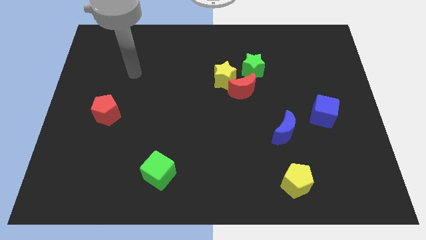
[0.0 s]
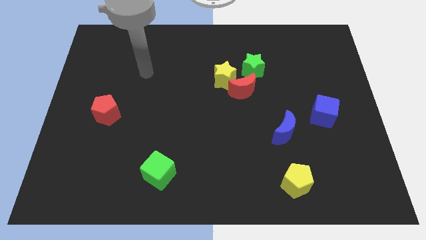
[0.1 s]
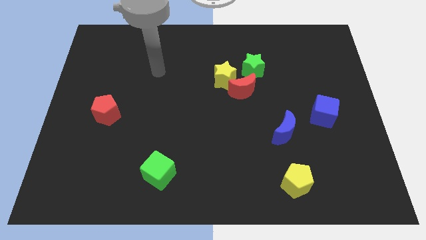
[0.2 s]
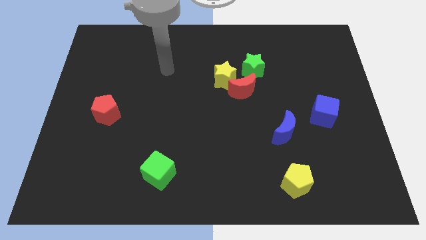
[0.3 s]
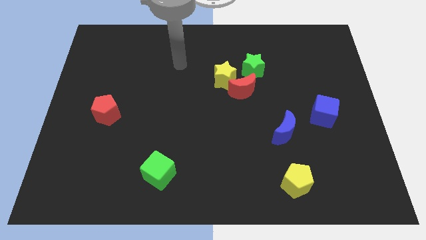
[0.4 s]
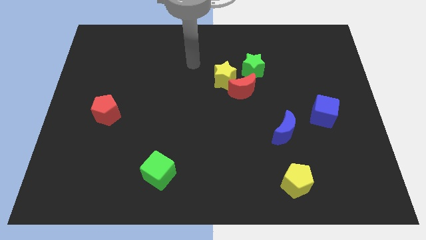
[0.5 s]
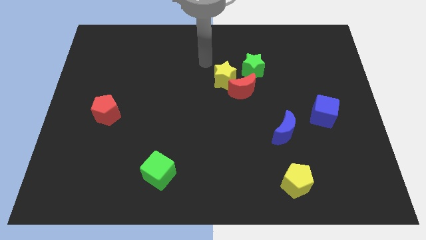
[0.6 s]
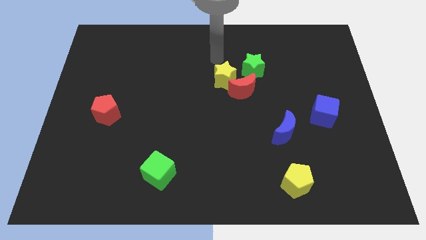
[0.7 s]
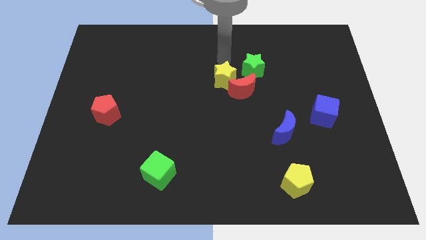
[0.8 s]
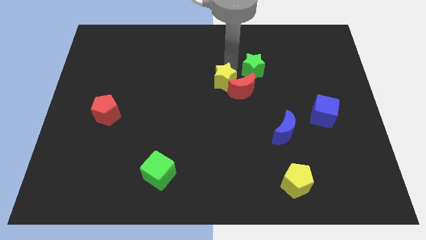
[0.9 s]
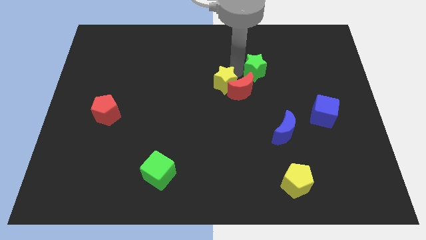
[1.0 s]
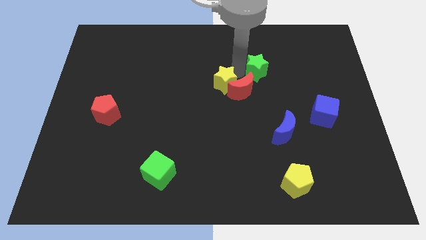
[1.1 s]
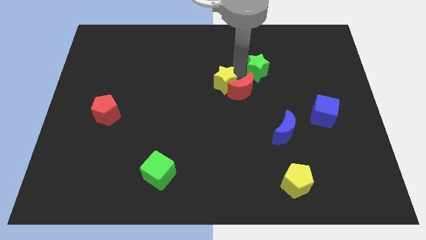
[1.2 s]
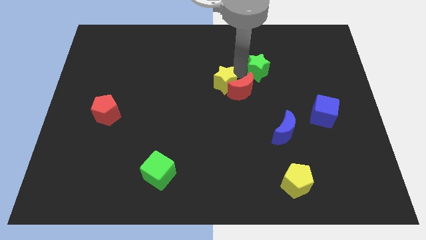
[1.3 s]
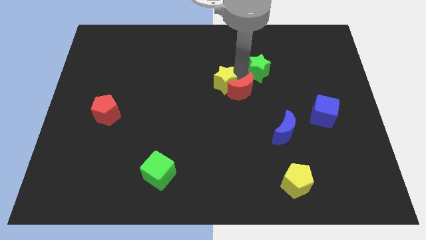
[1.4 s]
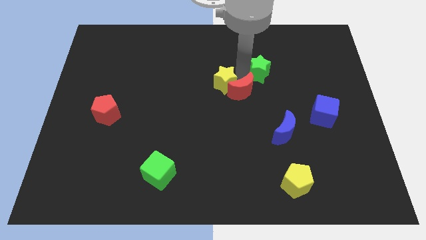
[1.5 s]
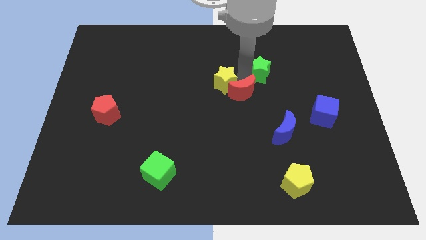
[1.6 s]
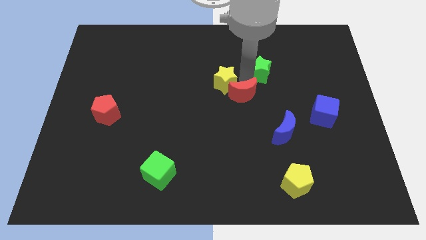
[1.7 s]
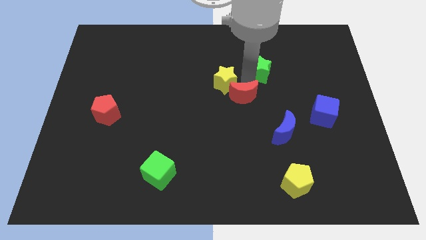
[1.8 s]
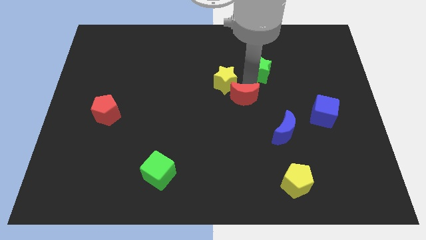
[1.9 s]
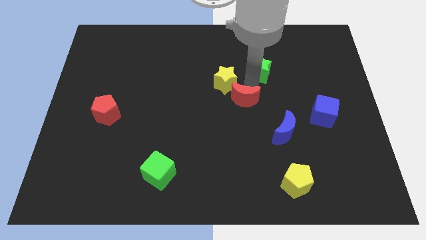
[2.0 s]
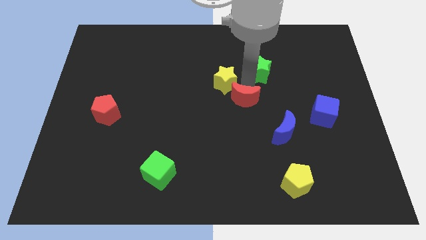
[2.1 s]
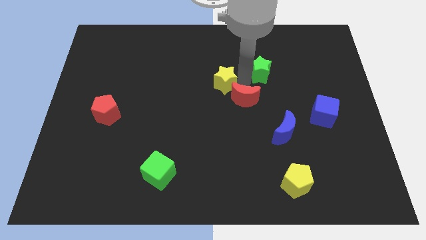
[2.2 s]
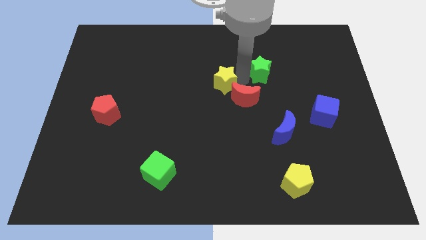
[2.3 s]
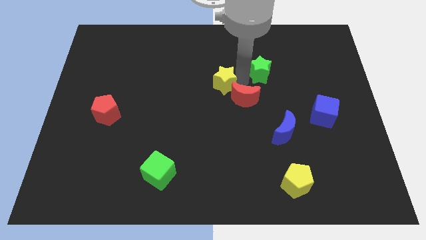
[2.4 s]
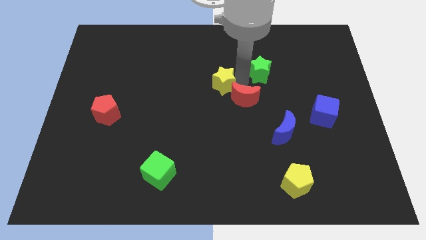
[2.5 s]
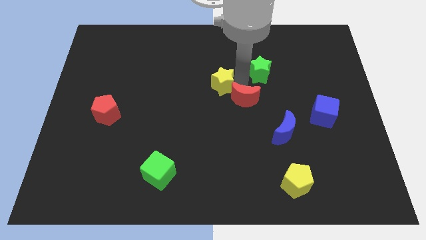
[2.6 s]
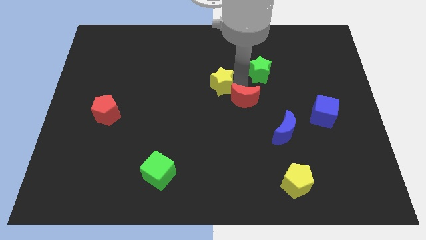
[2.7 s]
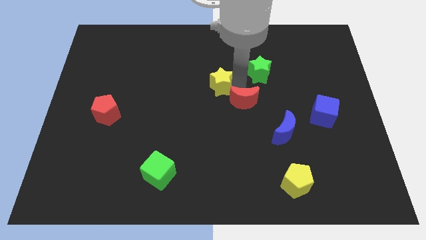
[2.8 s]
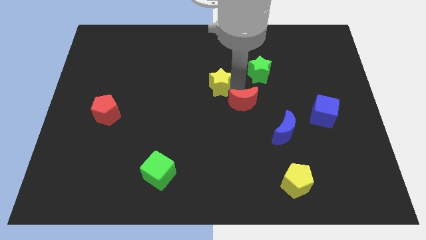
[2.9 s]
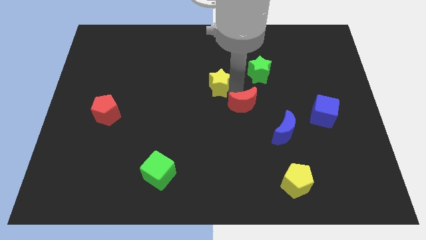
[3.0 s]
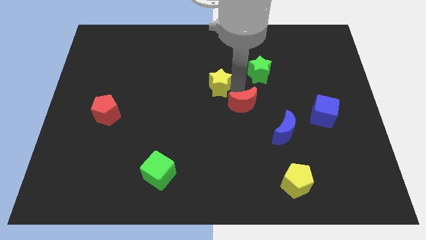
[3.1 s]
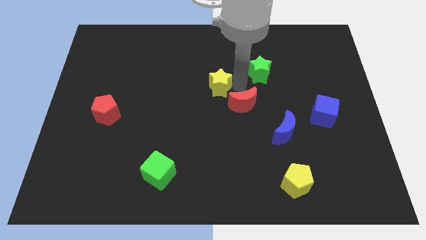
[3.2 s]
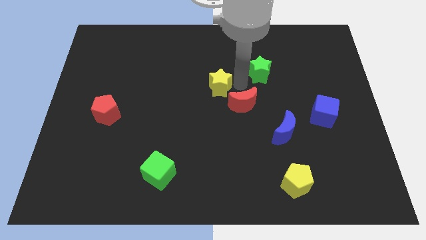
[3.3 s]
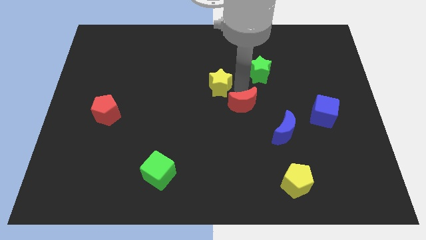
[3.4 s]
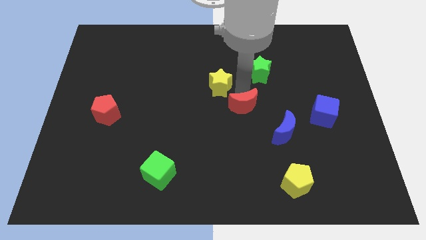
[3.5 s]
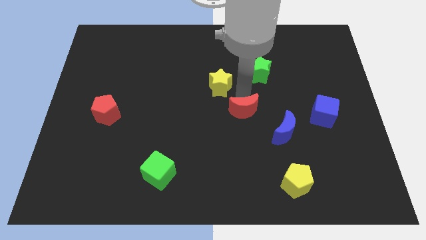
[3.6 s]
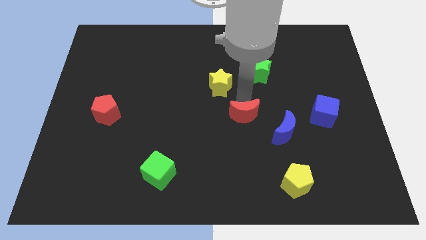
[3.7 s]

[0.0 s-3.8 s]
pull the red moon apart from the yellow star and green star

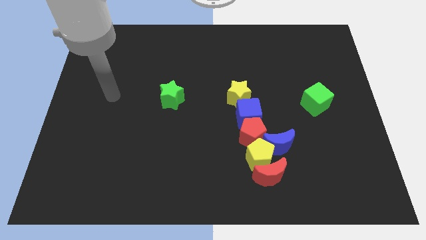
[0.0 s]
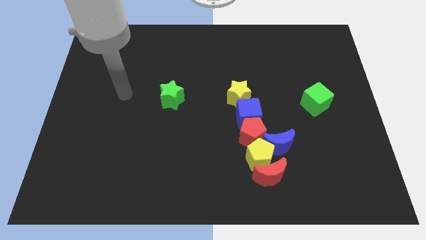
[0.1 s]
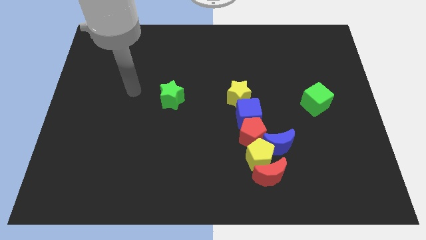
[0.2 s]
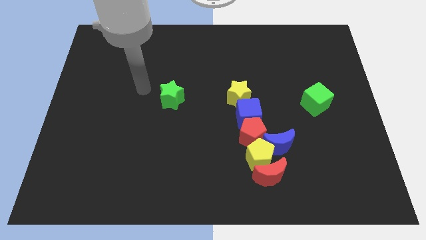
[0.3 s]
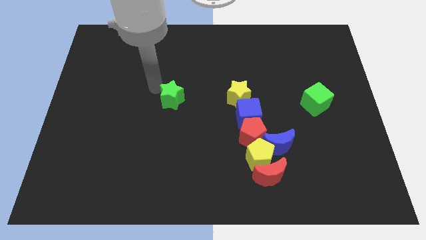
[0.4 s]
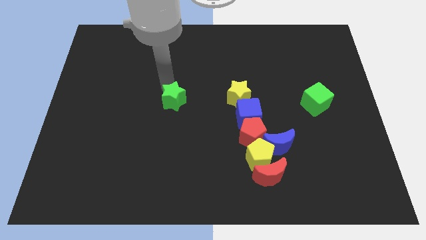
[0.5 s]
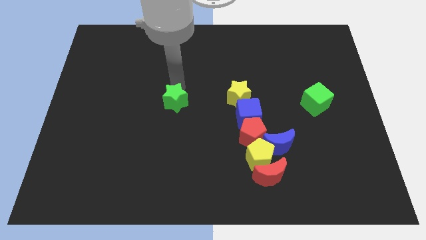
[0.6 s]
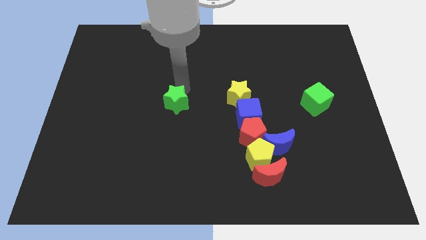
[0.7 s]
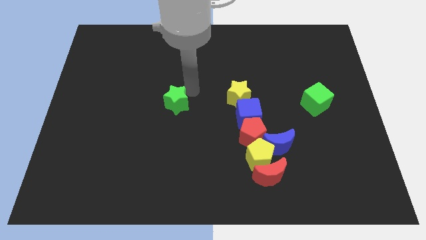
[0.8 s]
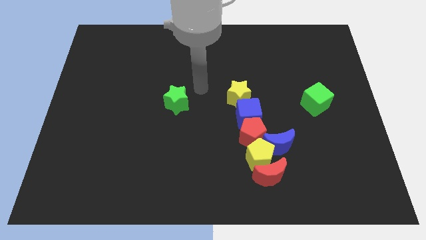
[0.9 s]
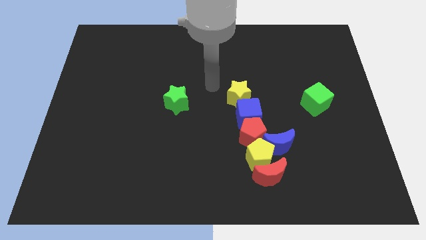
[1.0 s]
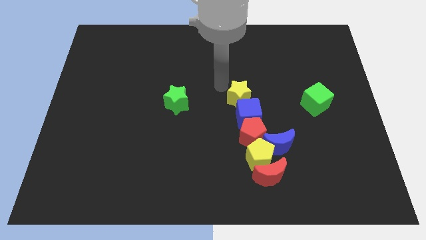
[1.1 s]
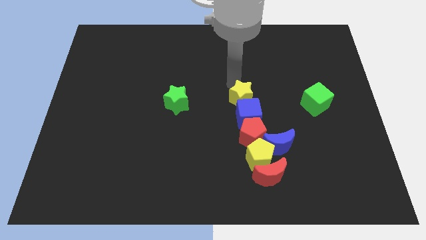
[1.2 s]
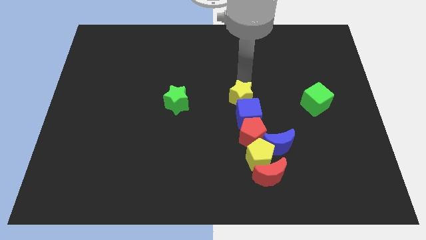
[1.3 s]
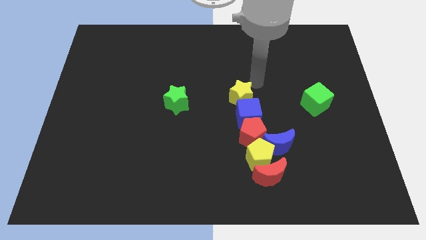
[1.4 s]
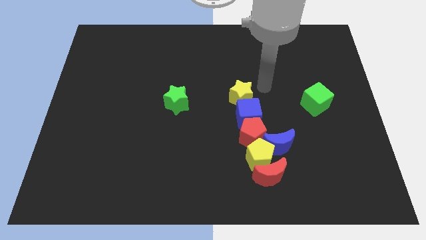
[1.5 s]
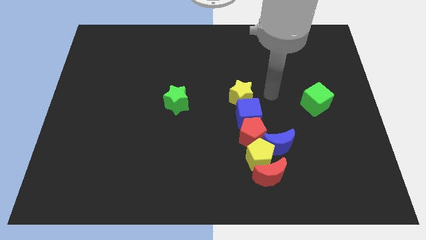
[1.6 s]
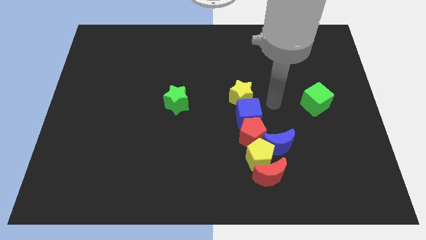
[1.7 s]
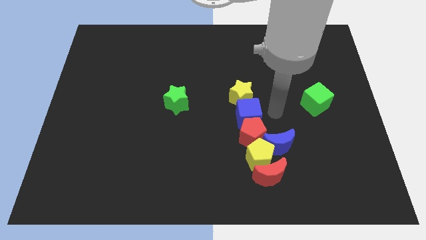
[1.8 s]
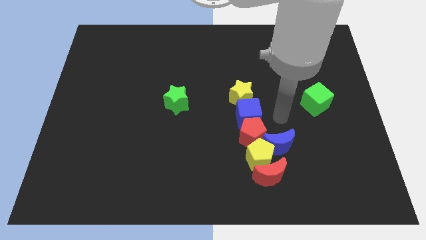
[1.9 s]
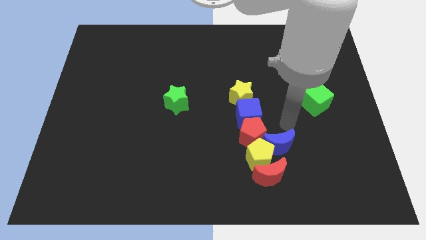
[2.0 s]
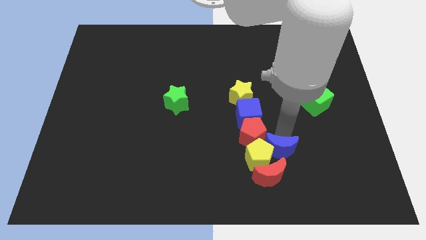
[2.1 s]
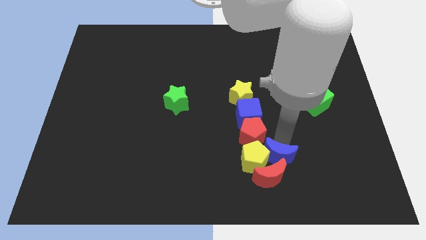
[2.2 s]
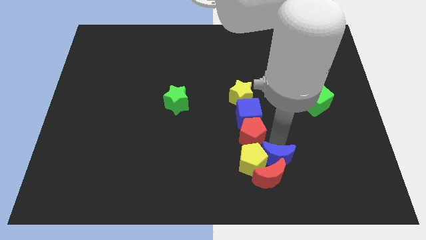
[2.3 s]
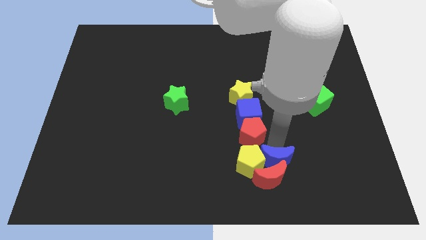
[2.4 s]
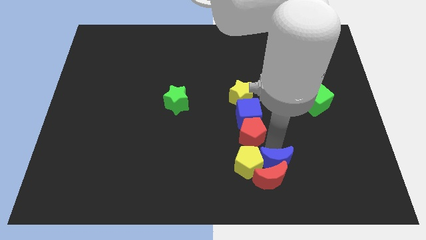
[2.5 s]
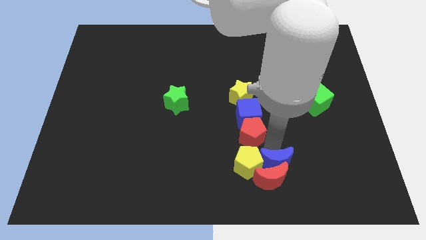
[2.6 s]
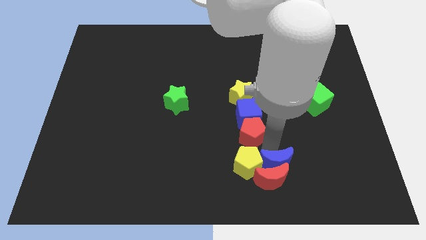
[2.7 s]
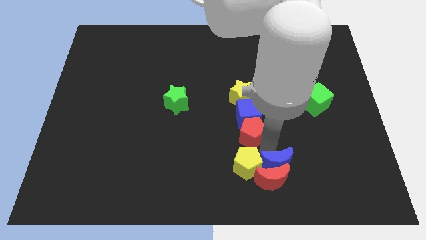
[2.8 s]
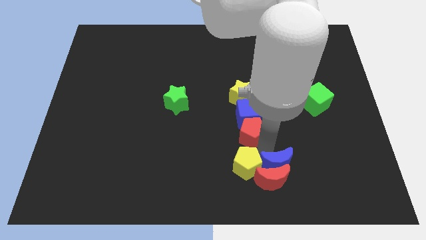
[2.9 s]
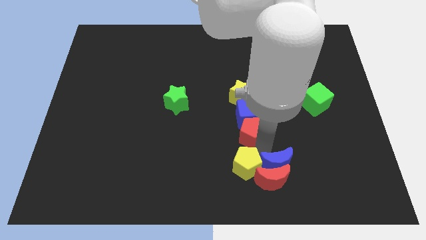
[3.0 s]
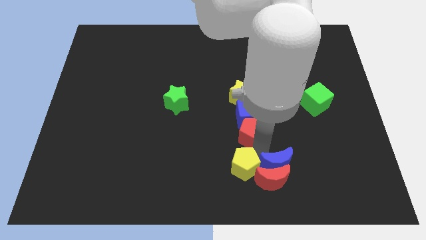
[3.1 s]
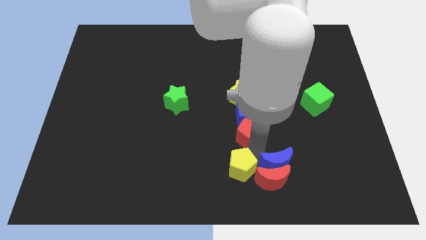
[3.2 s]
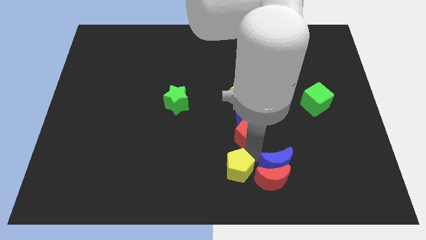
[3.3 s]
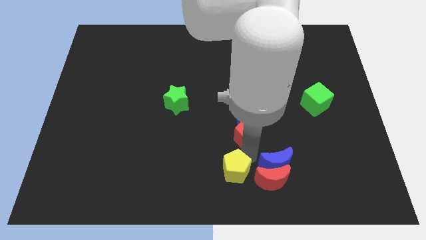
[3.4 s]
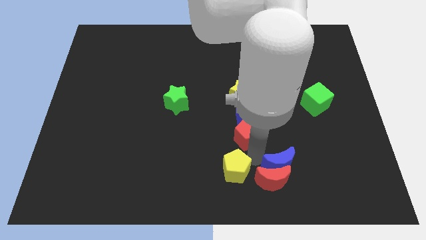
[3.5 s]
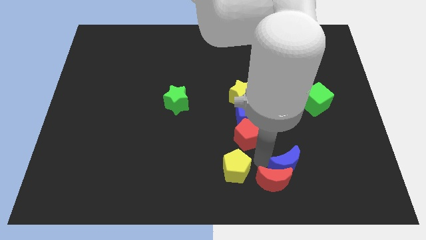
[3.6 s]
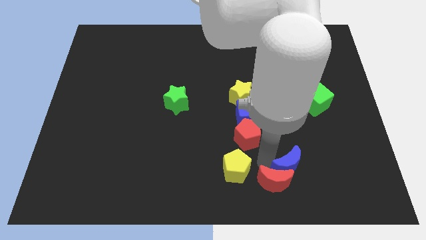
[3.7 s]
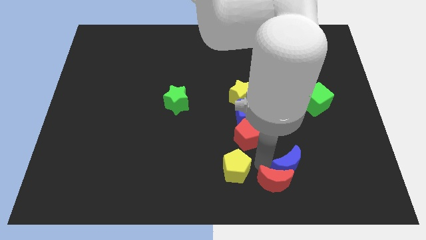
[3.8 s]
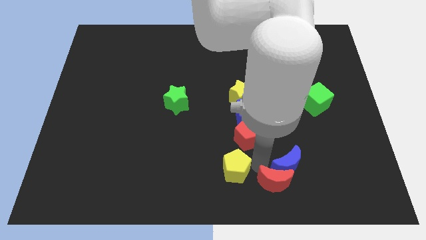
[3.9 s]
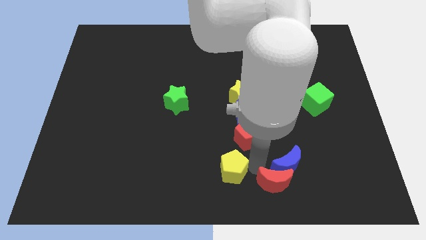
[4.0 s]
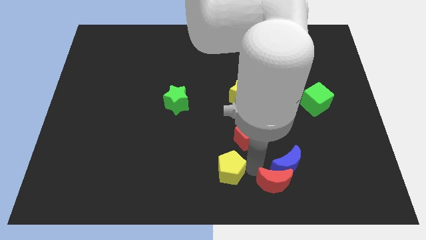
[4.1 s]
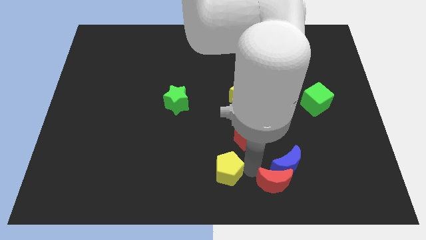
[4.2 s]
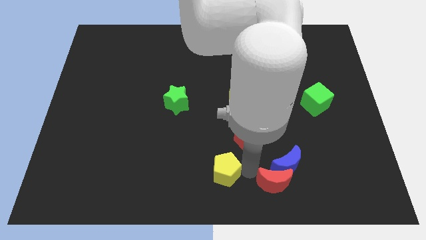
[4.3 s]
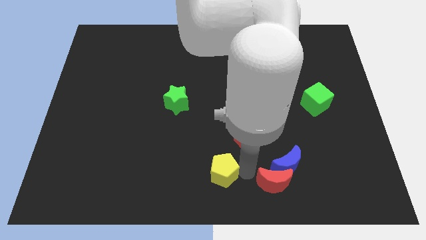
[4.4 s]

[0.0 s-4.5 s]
pull the yellow pentagon apart from the group

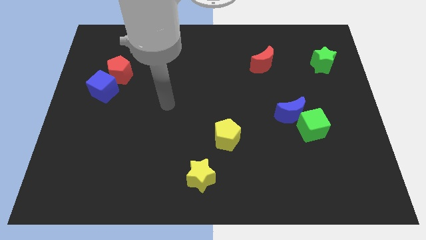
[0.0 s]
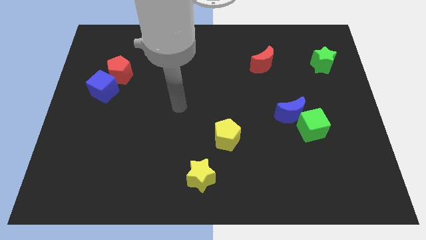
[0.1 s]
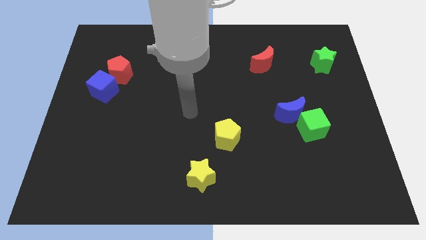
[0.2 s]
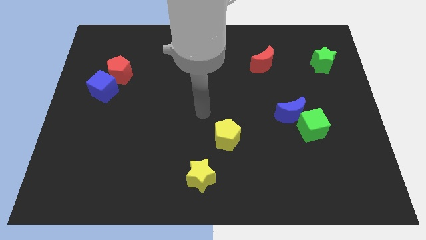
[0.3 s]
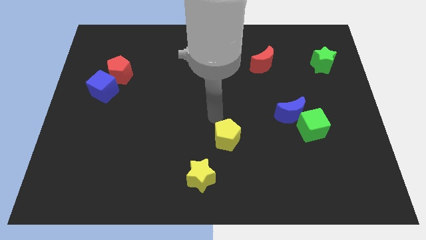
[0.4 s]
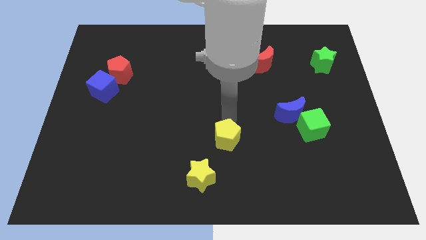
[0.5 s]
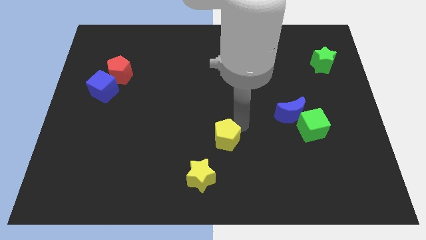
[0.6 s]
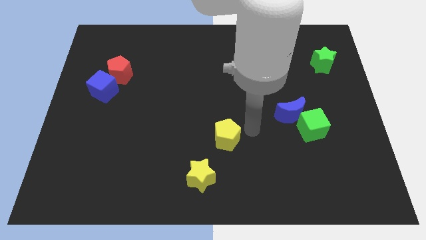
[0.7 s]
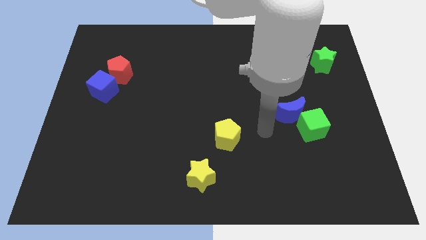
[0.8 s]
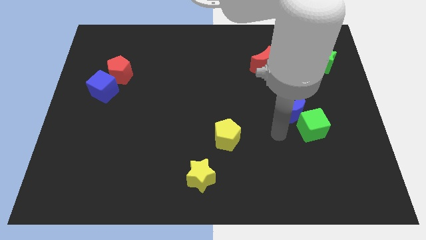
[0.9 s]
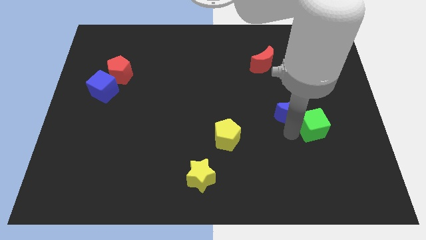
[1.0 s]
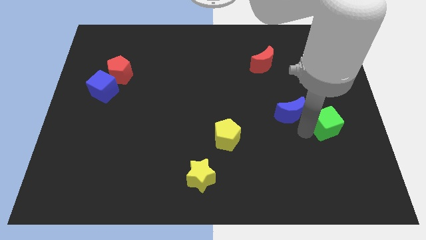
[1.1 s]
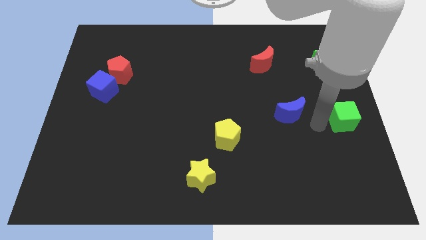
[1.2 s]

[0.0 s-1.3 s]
move the blue moon away from the green cube
